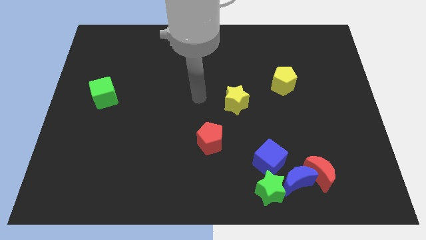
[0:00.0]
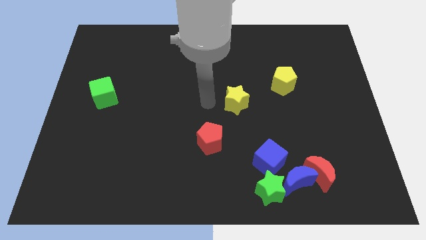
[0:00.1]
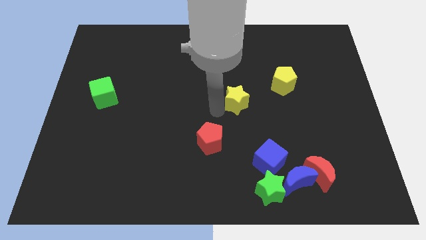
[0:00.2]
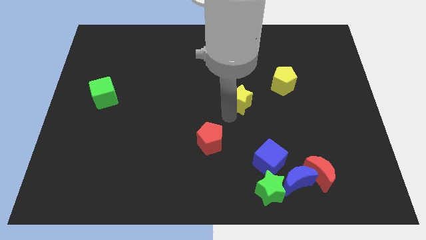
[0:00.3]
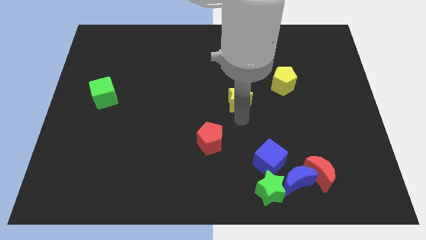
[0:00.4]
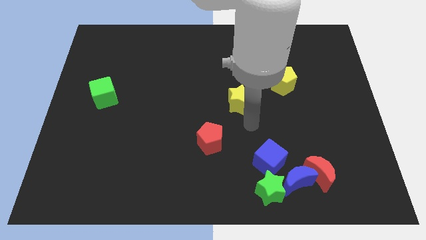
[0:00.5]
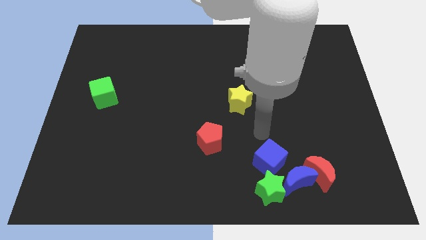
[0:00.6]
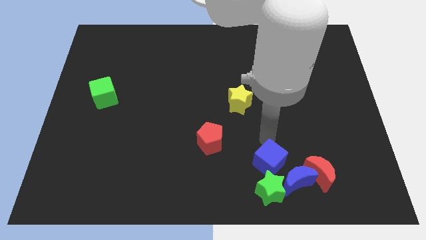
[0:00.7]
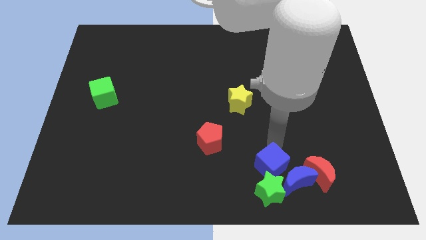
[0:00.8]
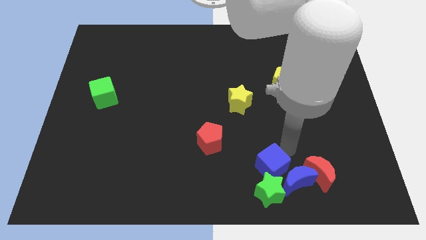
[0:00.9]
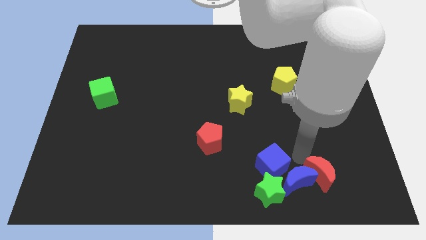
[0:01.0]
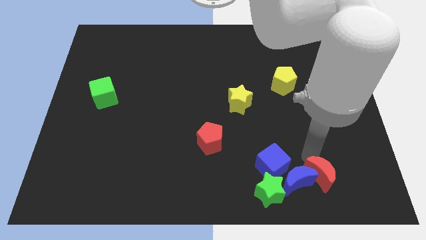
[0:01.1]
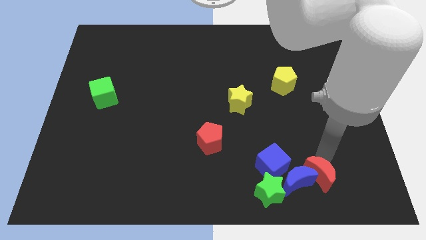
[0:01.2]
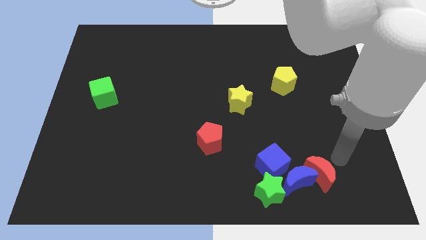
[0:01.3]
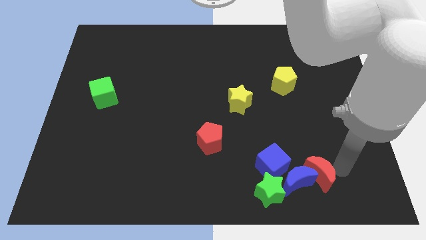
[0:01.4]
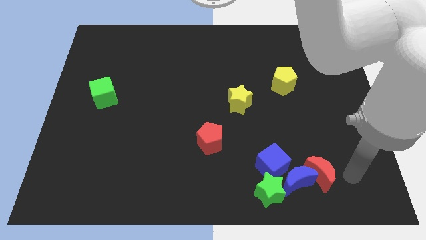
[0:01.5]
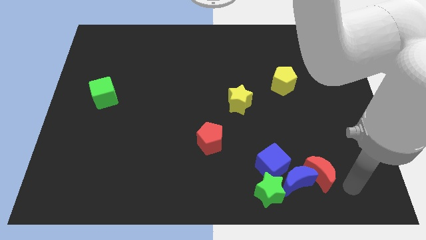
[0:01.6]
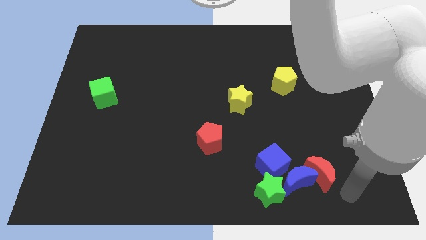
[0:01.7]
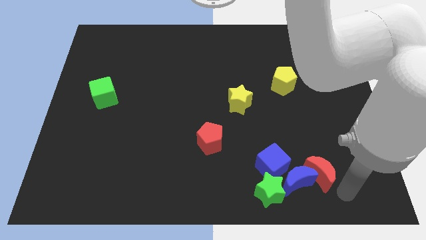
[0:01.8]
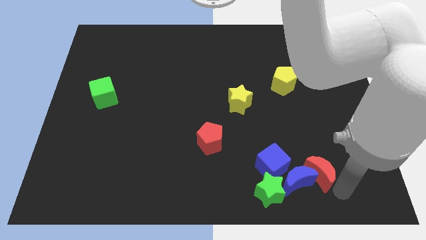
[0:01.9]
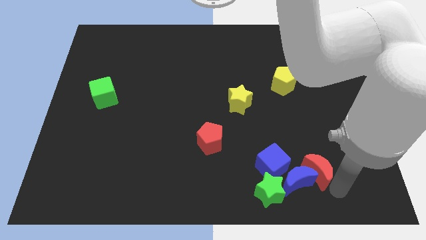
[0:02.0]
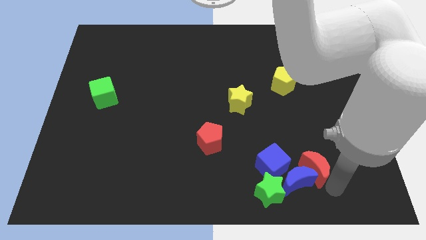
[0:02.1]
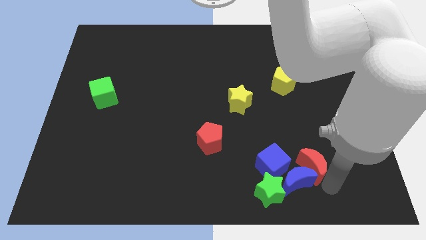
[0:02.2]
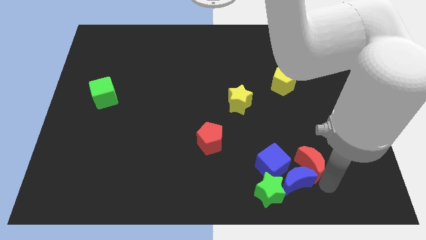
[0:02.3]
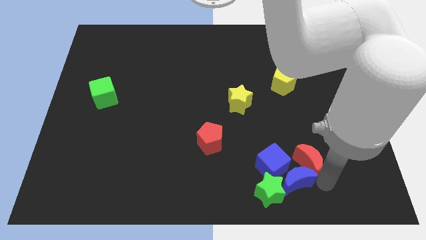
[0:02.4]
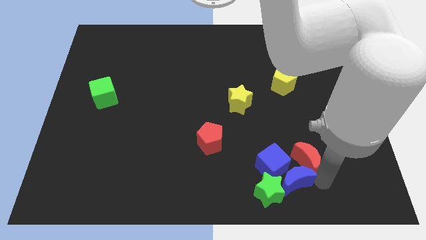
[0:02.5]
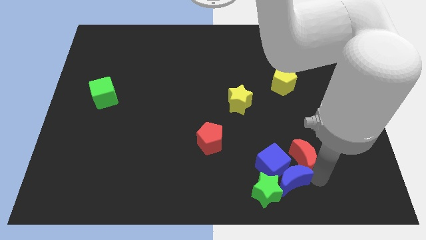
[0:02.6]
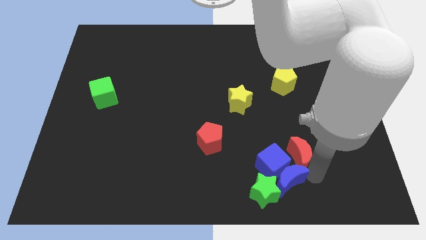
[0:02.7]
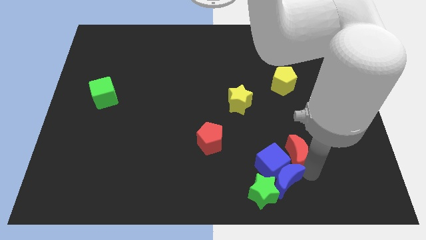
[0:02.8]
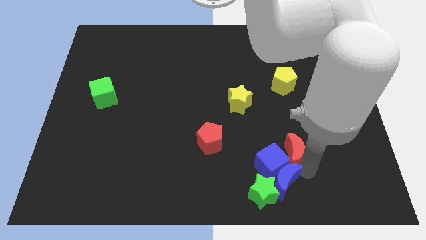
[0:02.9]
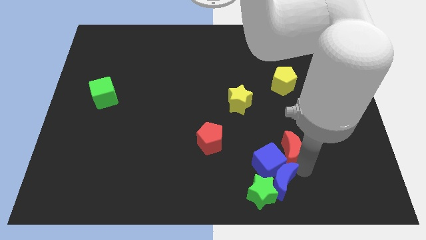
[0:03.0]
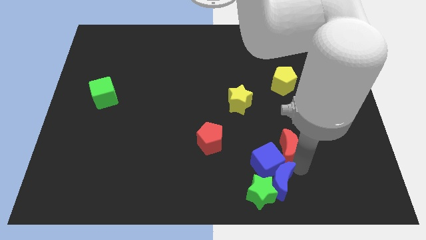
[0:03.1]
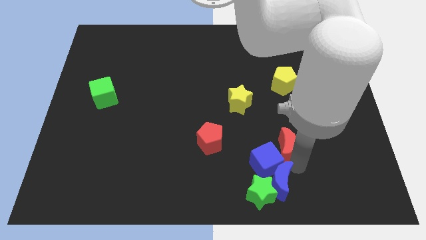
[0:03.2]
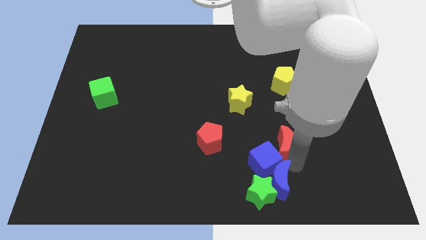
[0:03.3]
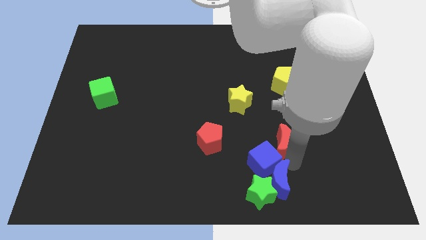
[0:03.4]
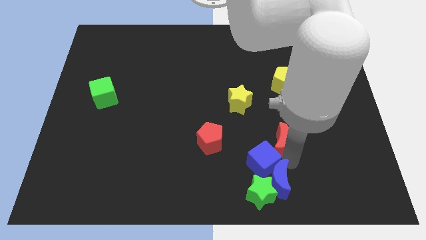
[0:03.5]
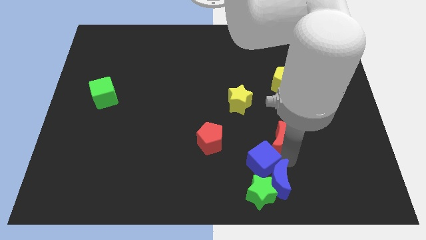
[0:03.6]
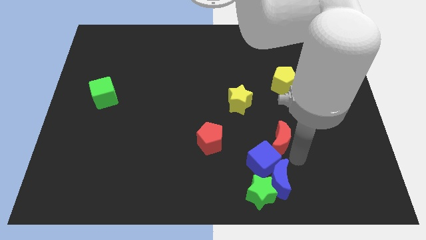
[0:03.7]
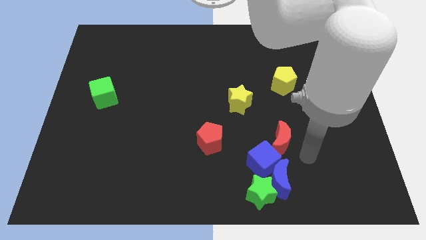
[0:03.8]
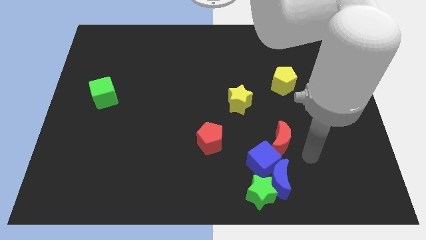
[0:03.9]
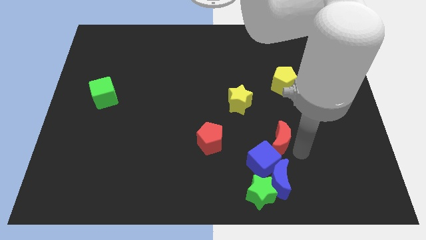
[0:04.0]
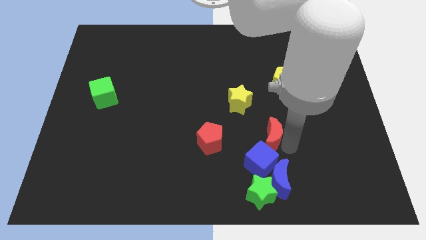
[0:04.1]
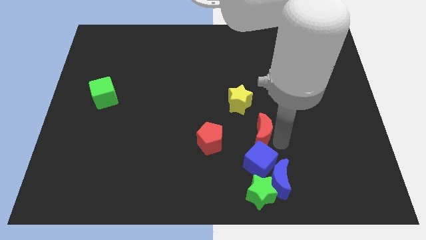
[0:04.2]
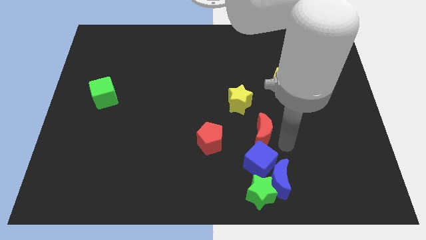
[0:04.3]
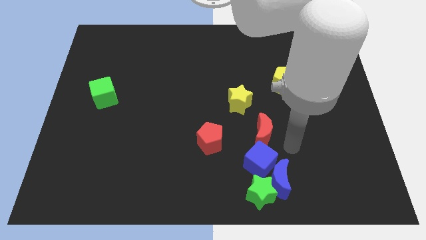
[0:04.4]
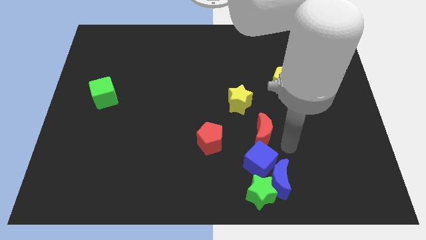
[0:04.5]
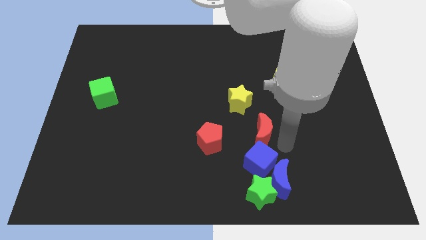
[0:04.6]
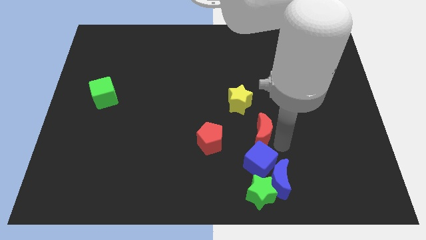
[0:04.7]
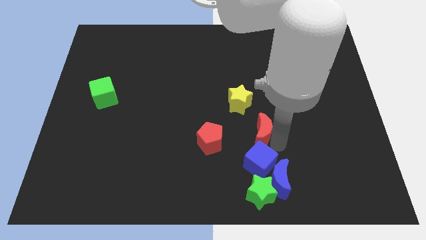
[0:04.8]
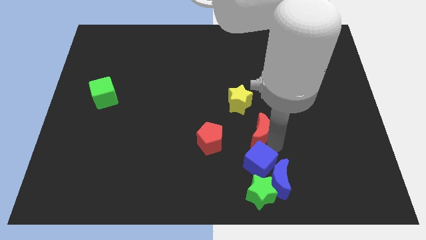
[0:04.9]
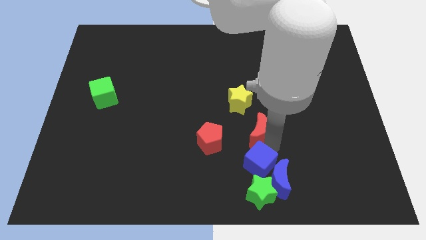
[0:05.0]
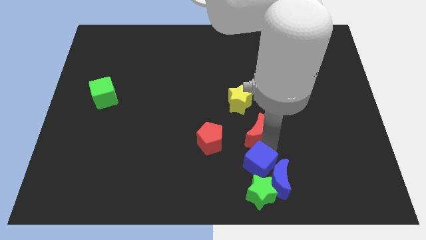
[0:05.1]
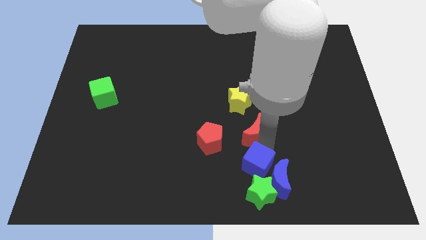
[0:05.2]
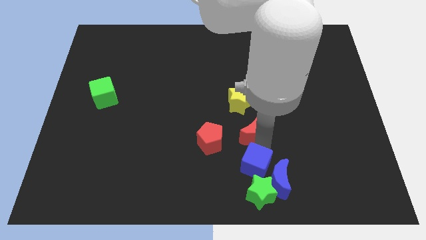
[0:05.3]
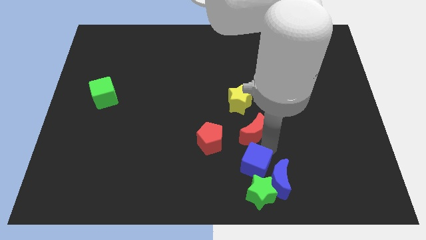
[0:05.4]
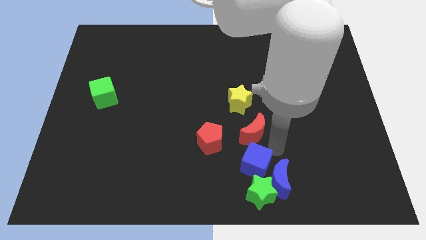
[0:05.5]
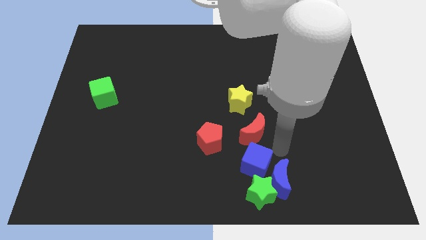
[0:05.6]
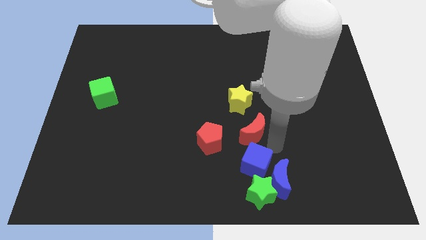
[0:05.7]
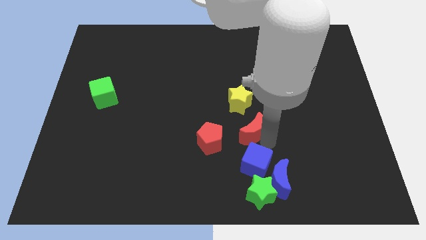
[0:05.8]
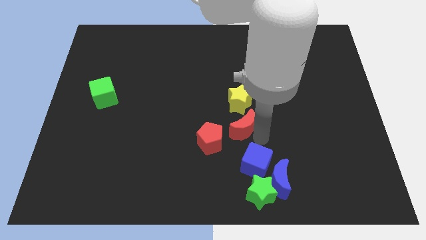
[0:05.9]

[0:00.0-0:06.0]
move the red moon to the top right side of the red pentagon

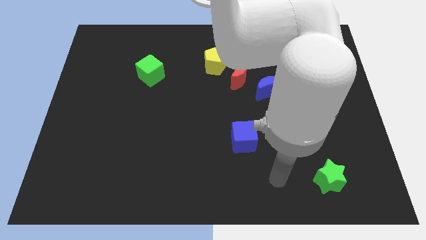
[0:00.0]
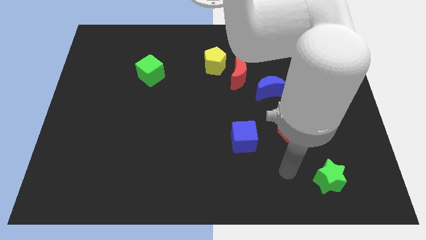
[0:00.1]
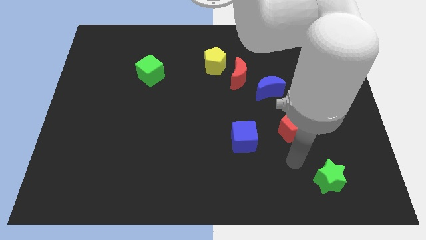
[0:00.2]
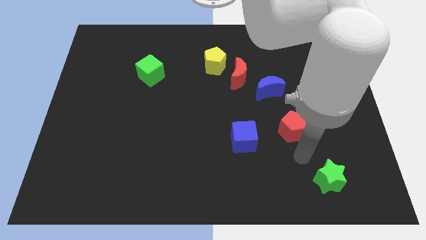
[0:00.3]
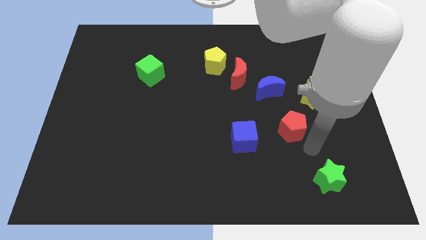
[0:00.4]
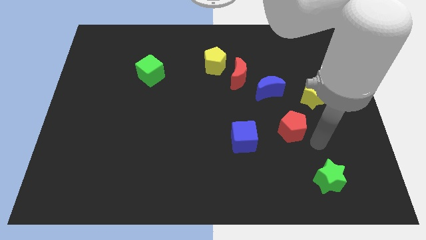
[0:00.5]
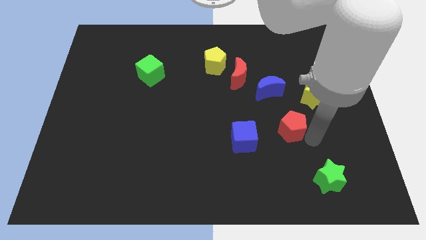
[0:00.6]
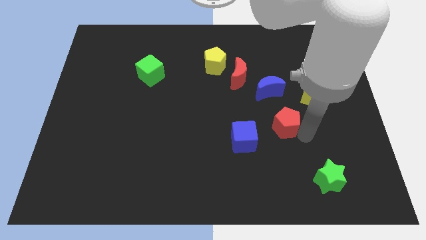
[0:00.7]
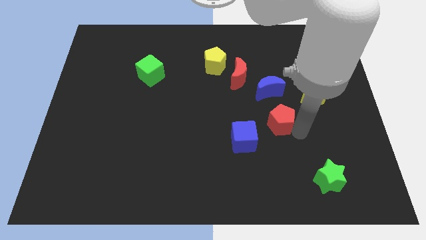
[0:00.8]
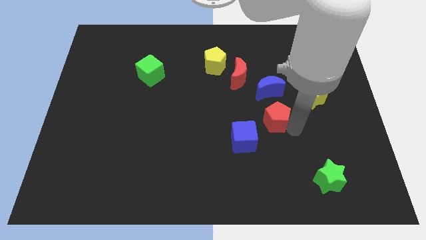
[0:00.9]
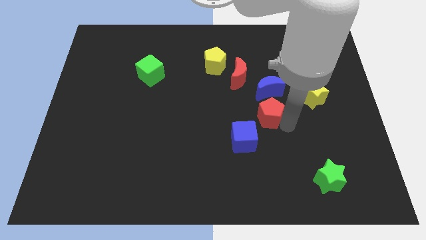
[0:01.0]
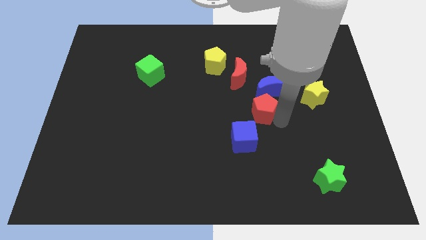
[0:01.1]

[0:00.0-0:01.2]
move the red pentagon to the bottom left side of the blue moon
